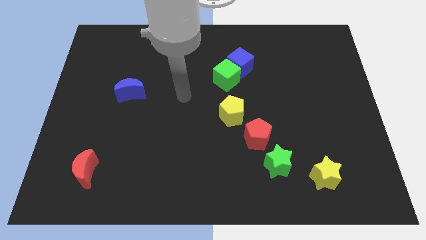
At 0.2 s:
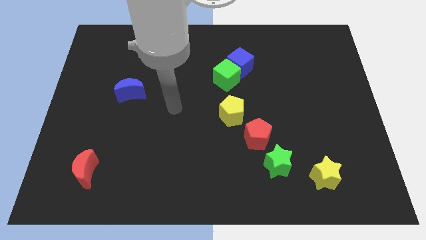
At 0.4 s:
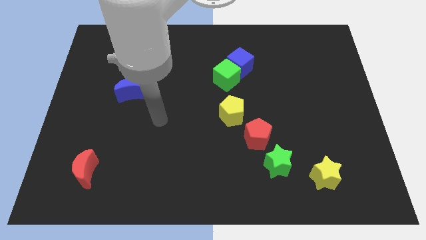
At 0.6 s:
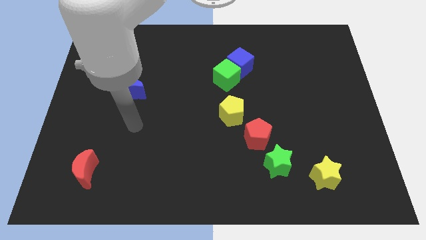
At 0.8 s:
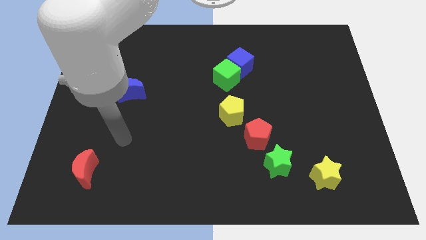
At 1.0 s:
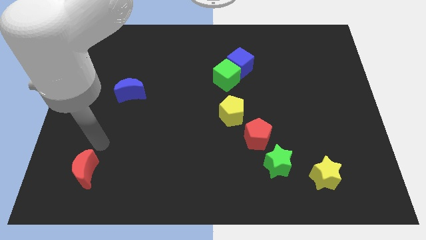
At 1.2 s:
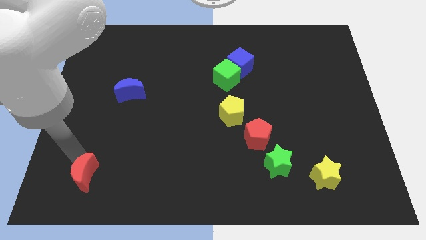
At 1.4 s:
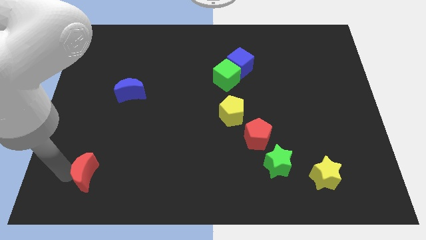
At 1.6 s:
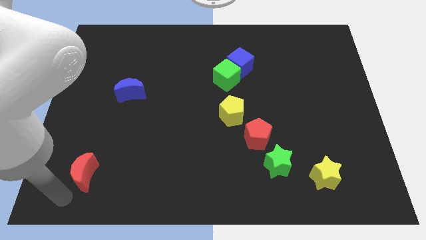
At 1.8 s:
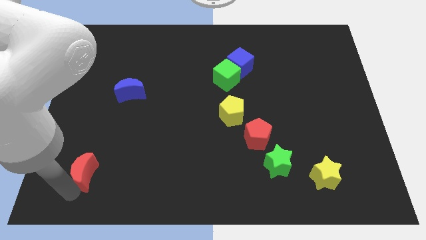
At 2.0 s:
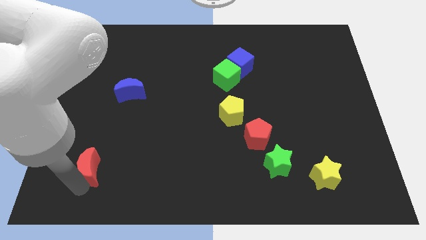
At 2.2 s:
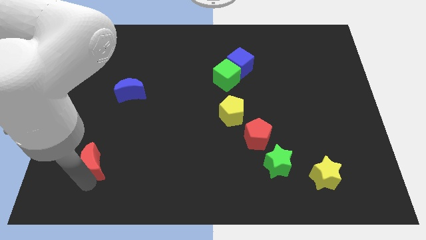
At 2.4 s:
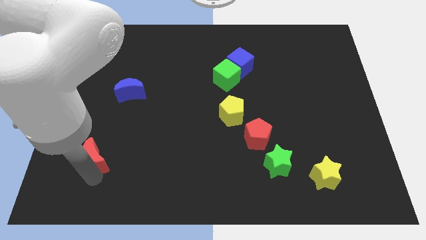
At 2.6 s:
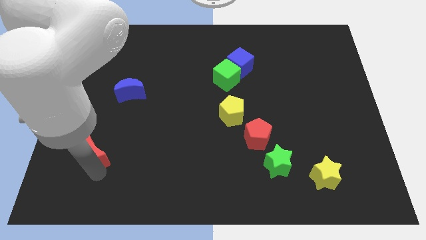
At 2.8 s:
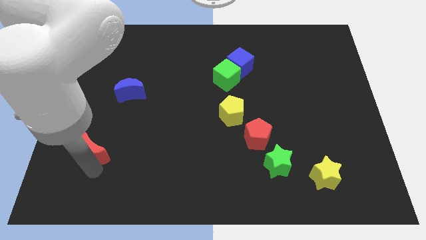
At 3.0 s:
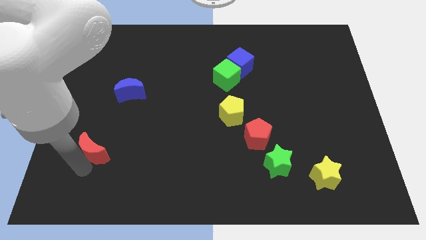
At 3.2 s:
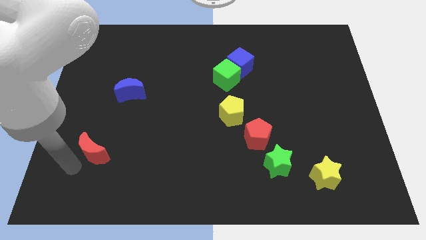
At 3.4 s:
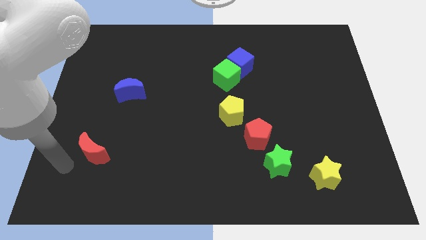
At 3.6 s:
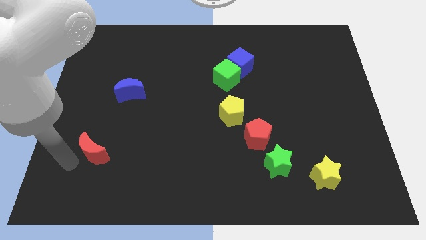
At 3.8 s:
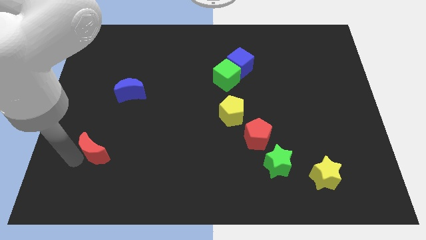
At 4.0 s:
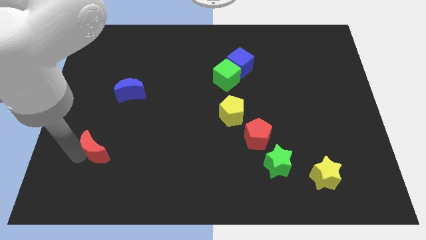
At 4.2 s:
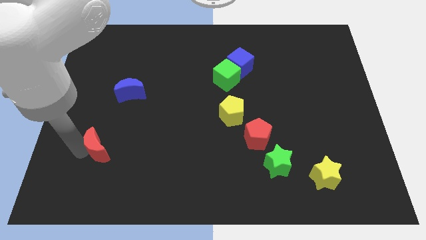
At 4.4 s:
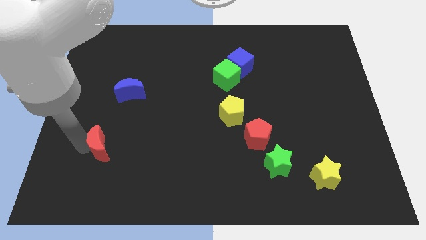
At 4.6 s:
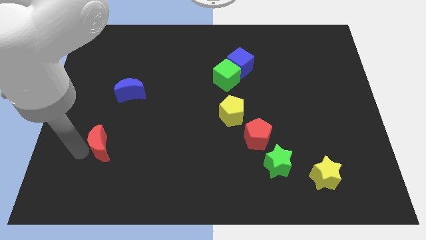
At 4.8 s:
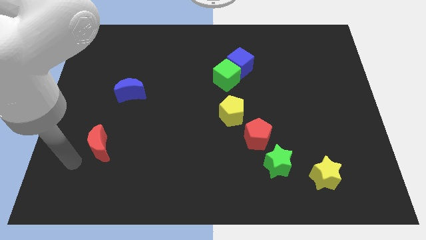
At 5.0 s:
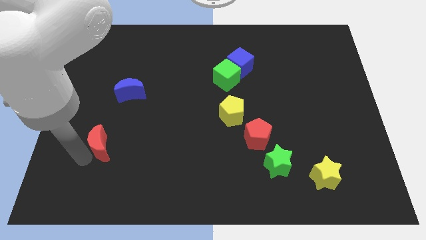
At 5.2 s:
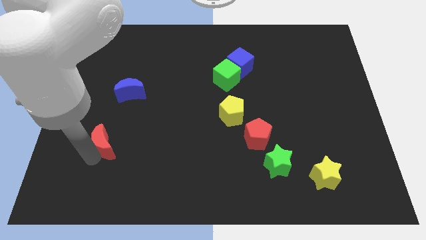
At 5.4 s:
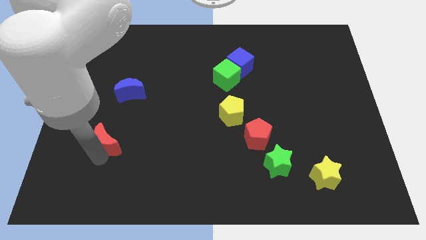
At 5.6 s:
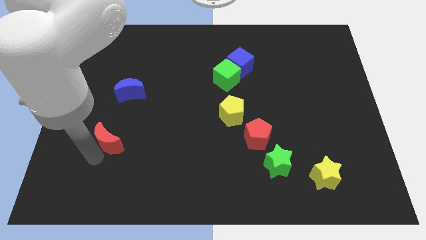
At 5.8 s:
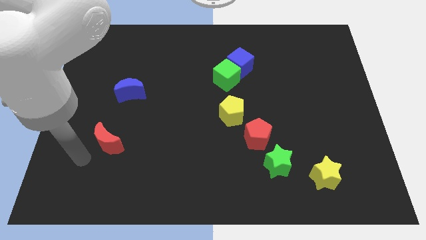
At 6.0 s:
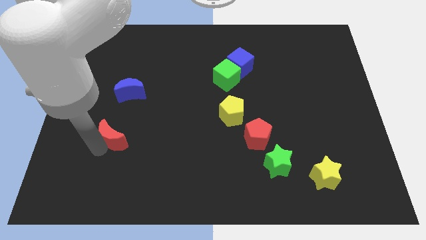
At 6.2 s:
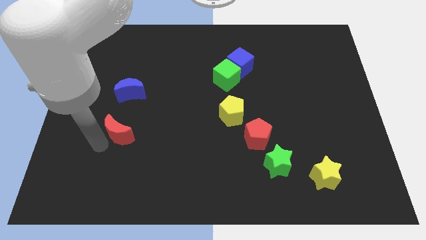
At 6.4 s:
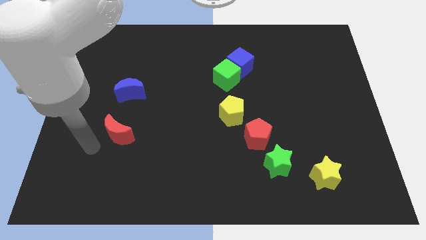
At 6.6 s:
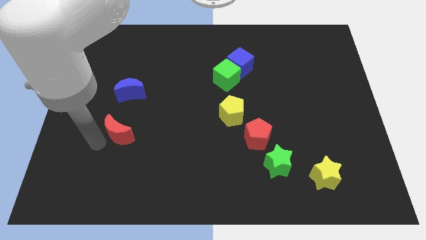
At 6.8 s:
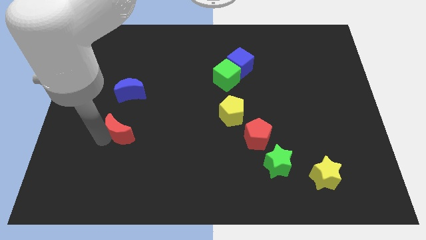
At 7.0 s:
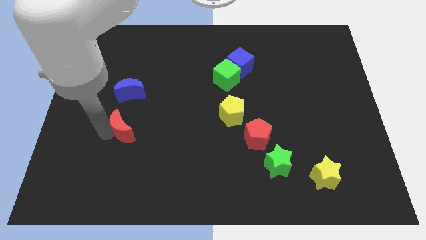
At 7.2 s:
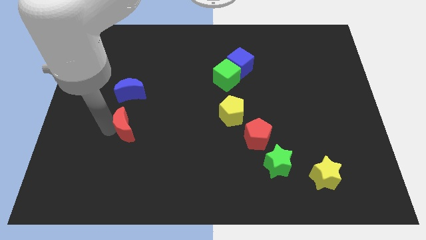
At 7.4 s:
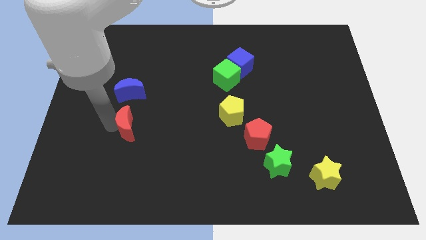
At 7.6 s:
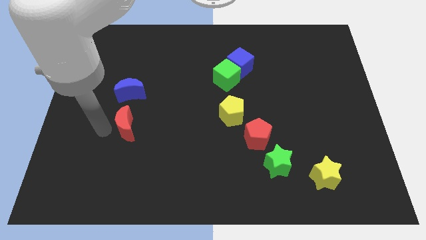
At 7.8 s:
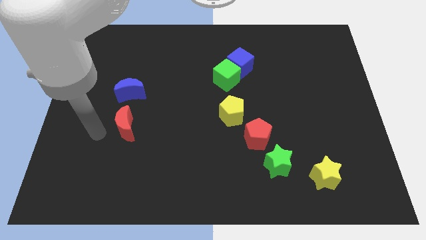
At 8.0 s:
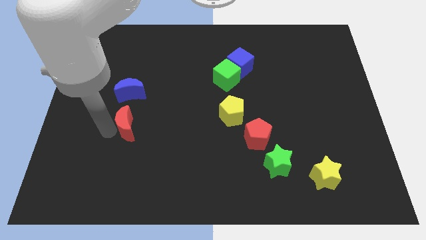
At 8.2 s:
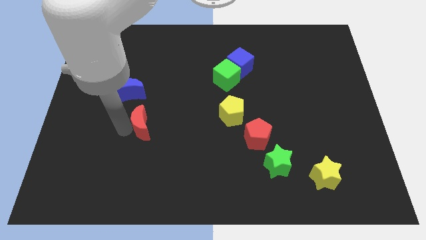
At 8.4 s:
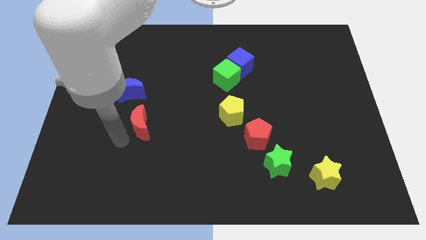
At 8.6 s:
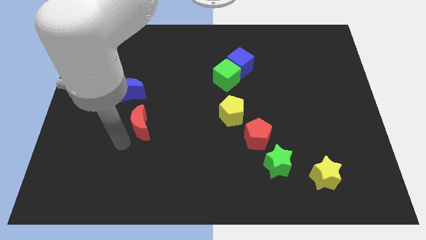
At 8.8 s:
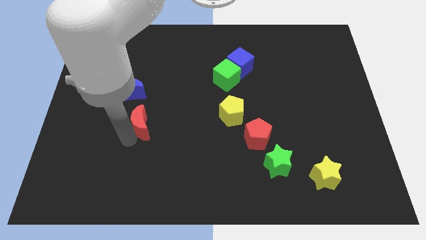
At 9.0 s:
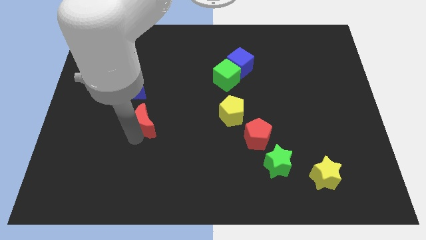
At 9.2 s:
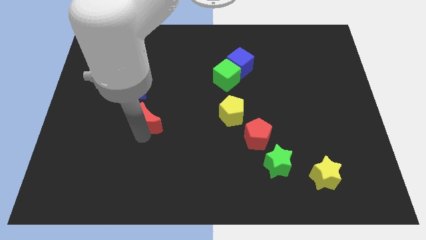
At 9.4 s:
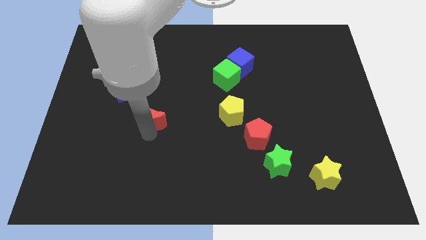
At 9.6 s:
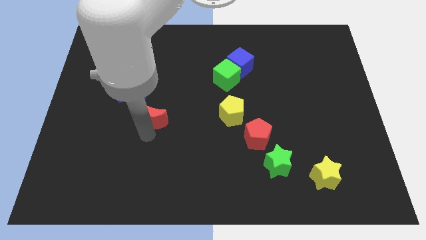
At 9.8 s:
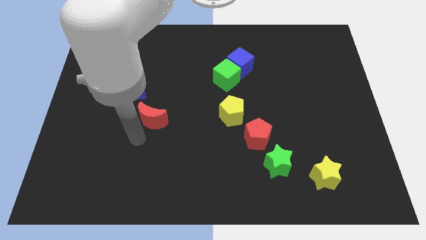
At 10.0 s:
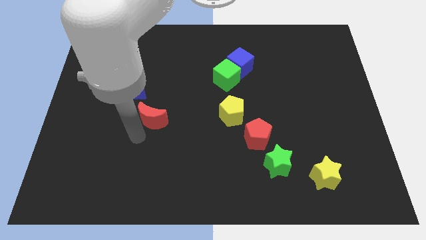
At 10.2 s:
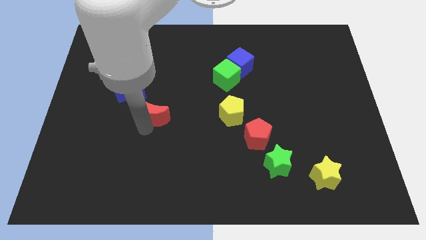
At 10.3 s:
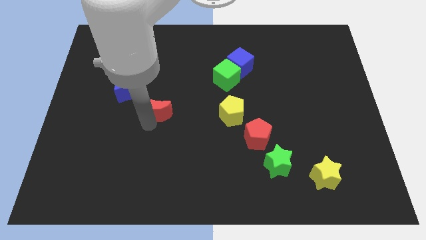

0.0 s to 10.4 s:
move the red moon upwards and to the right diagonally

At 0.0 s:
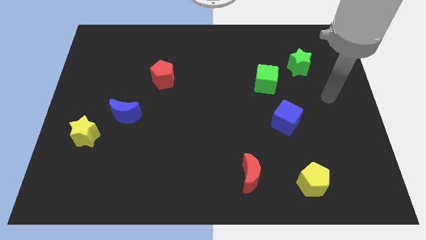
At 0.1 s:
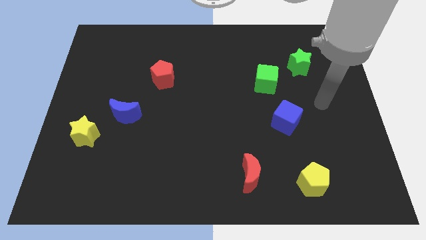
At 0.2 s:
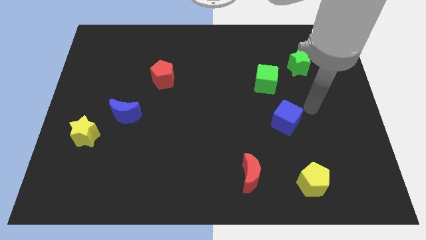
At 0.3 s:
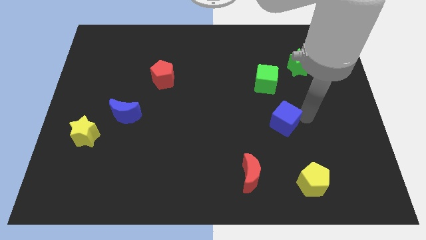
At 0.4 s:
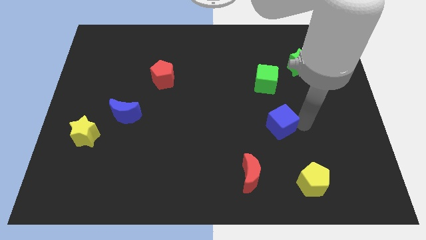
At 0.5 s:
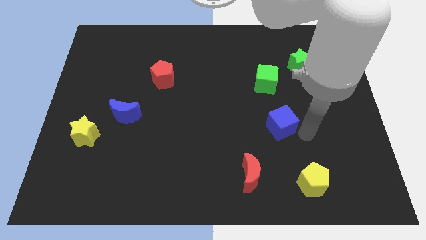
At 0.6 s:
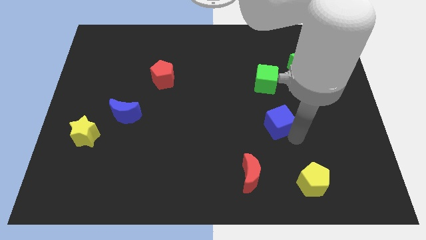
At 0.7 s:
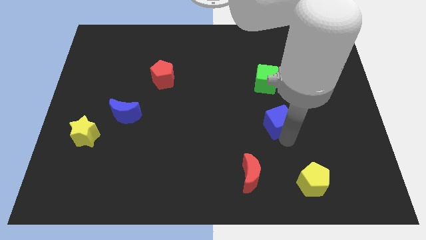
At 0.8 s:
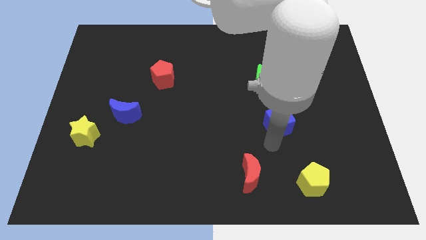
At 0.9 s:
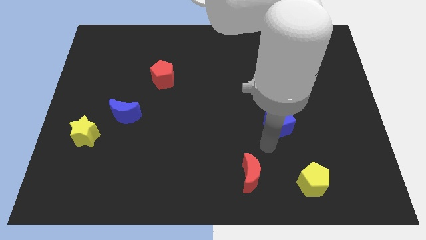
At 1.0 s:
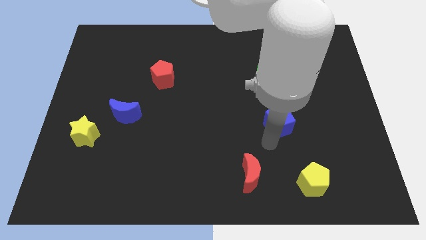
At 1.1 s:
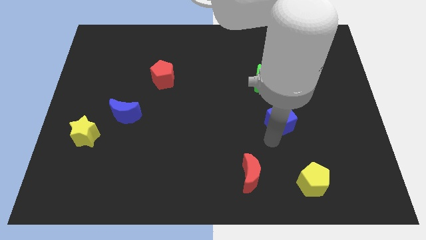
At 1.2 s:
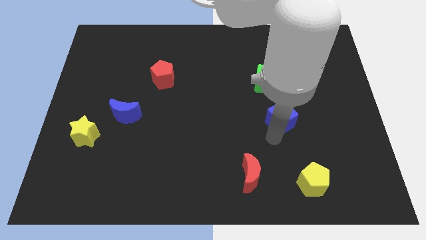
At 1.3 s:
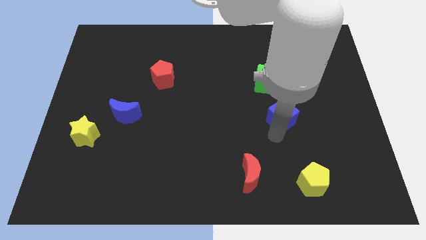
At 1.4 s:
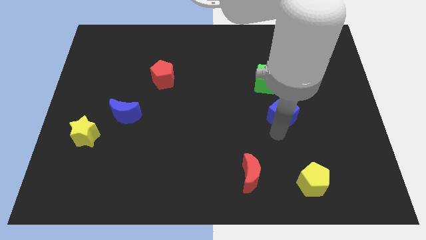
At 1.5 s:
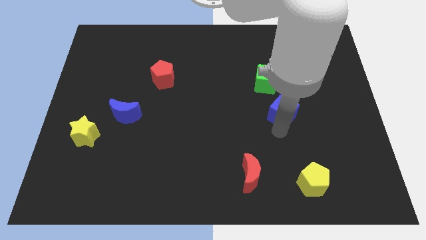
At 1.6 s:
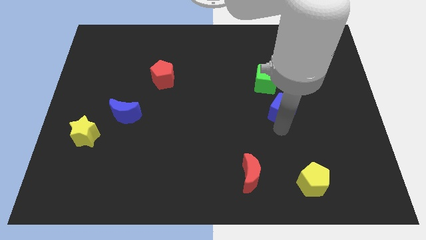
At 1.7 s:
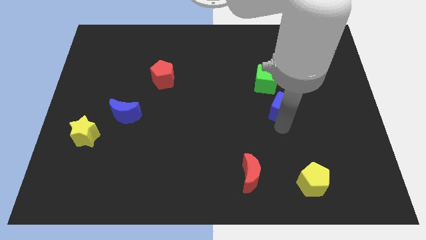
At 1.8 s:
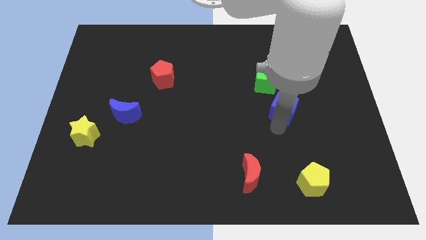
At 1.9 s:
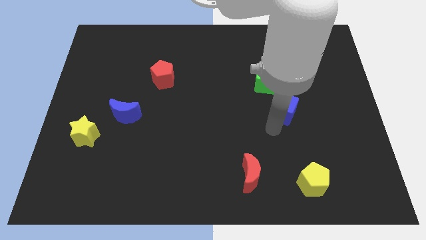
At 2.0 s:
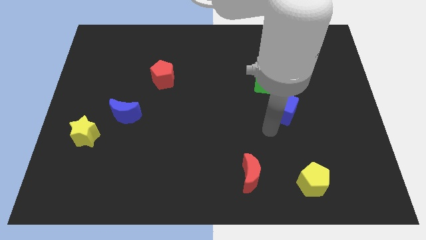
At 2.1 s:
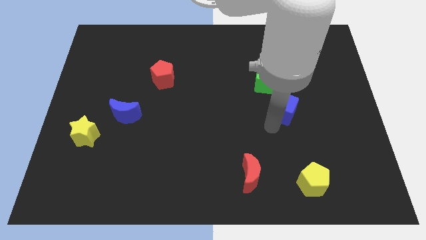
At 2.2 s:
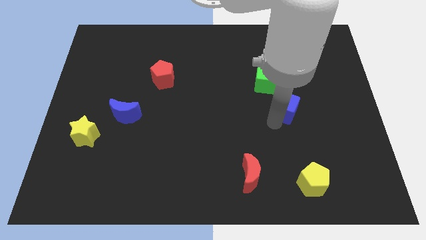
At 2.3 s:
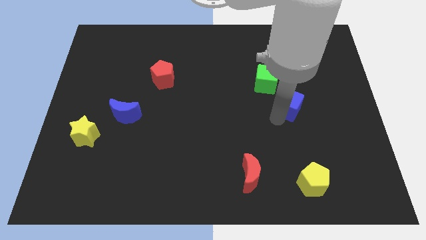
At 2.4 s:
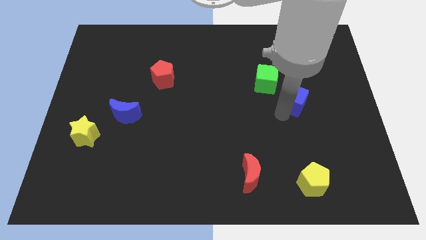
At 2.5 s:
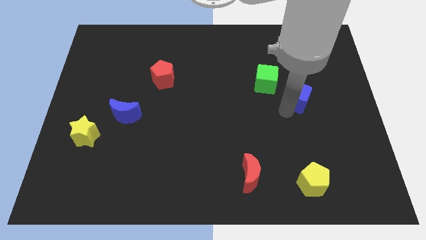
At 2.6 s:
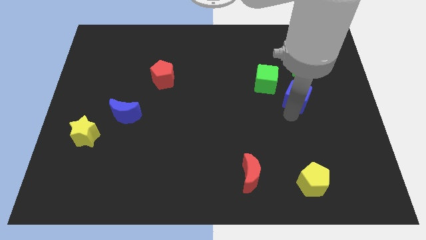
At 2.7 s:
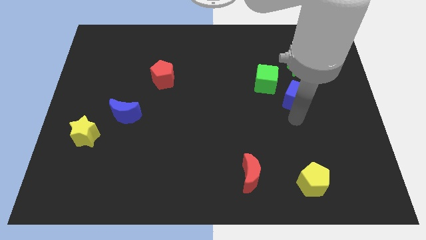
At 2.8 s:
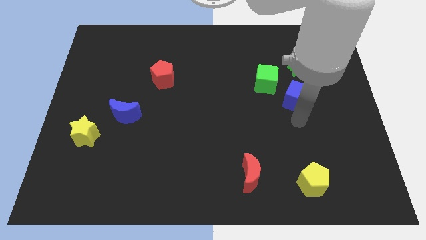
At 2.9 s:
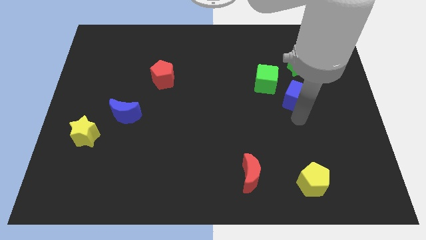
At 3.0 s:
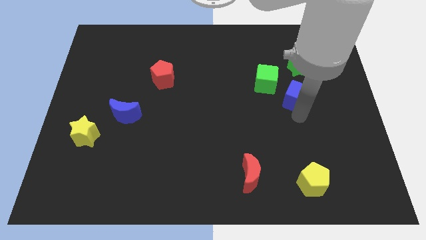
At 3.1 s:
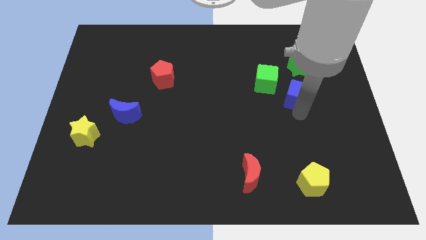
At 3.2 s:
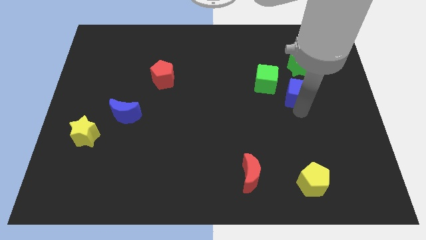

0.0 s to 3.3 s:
push the blue cube a bit upwards
